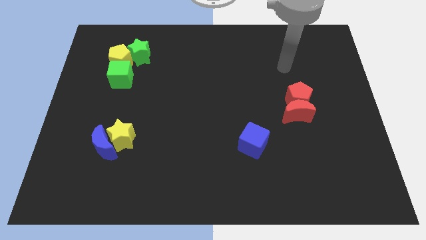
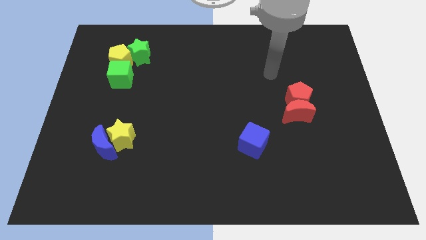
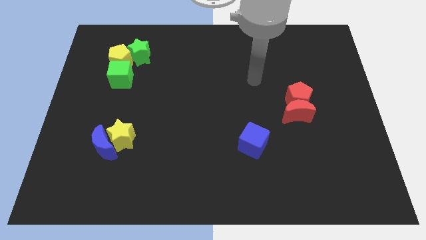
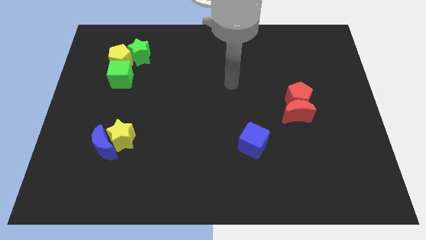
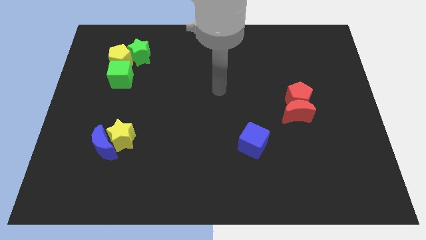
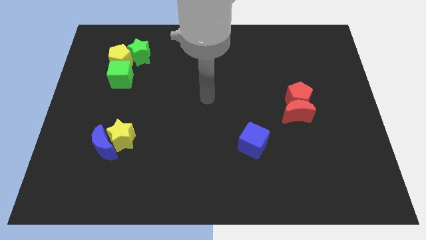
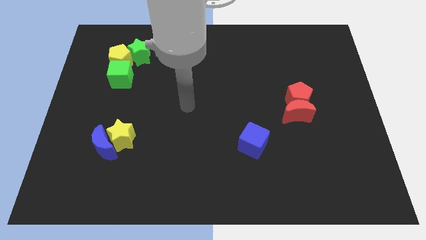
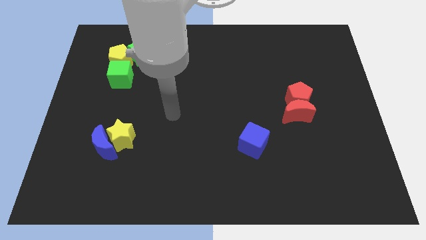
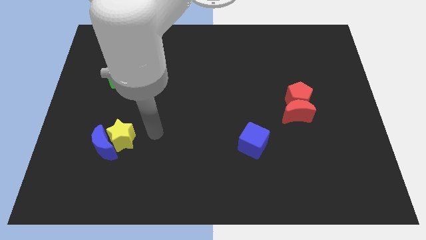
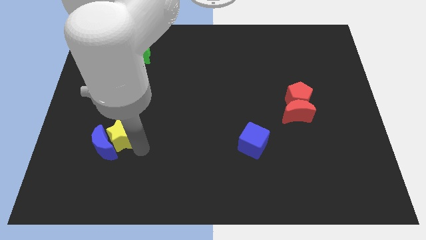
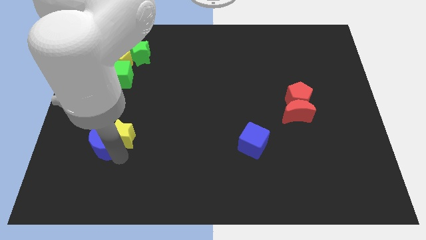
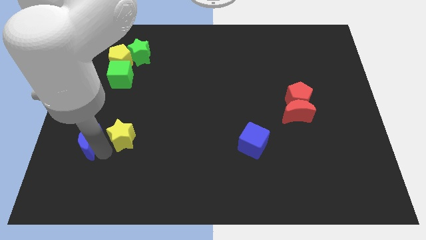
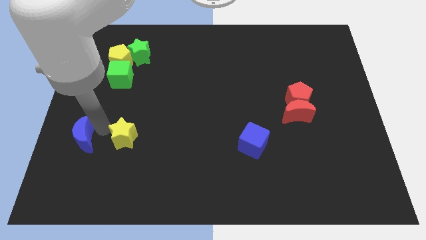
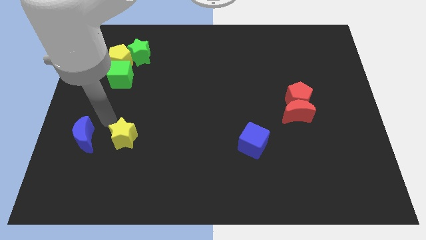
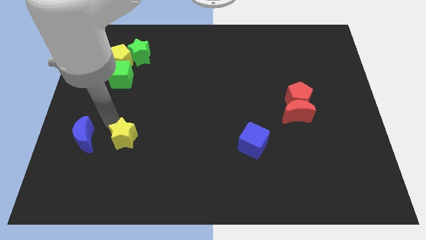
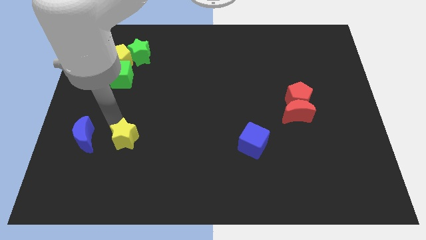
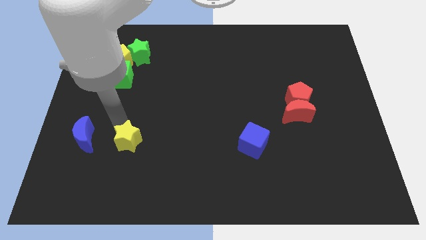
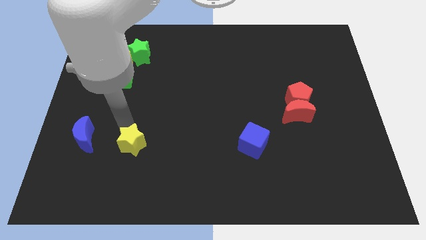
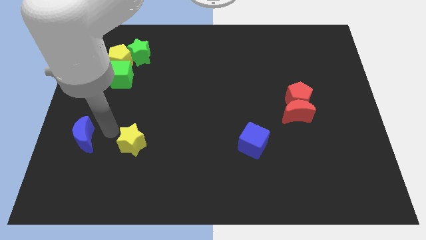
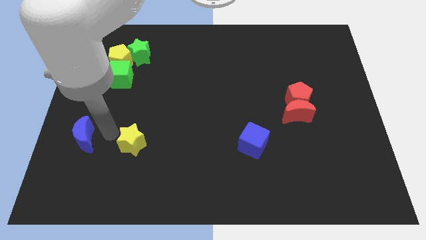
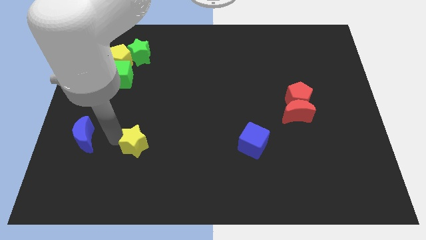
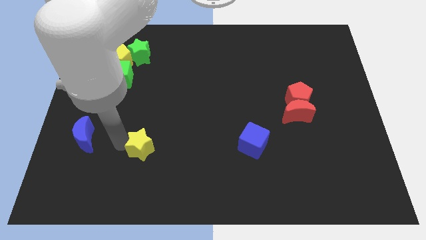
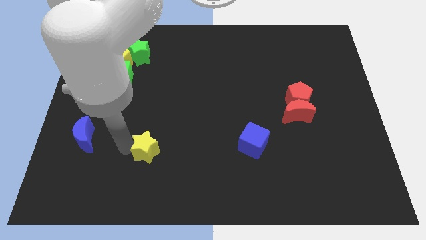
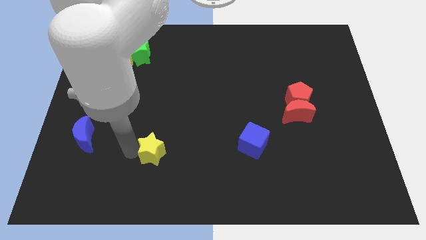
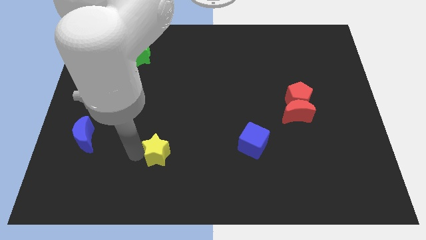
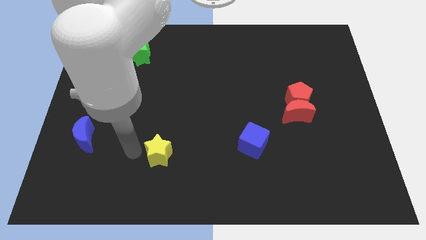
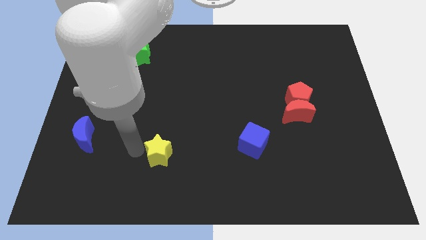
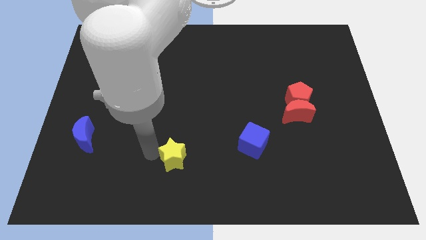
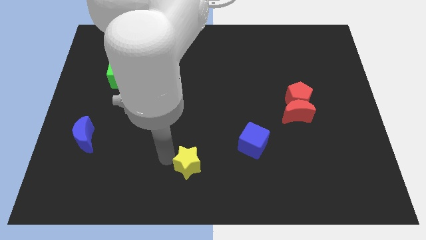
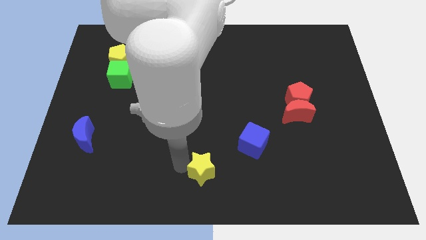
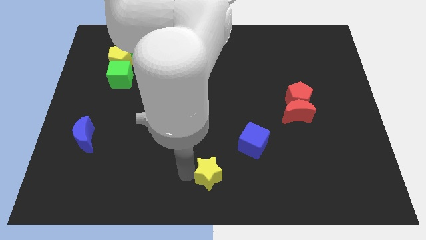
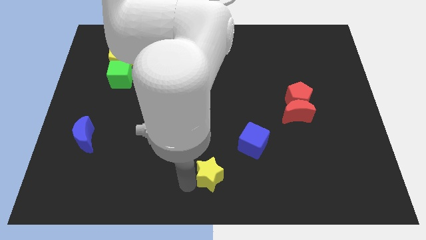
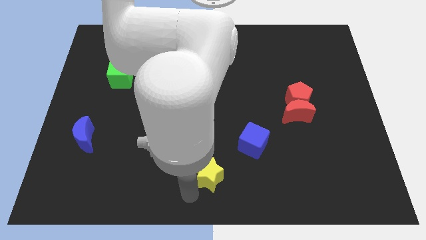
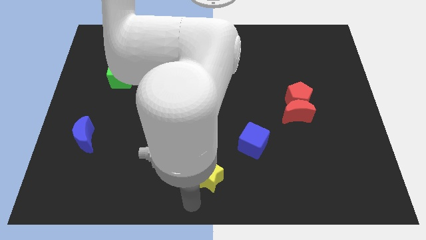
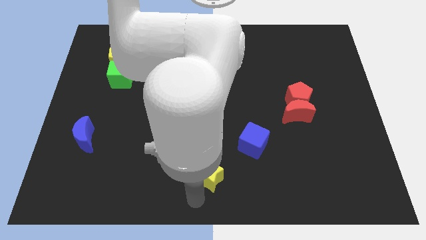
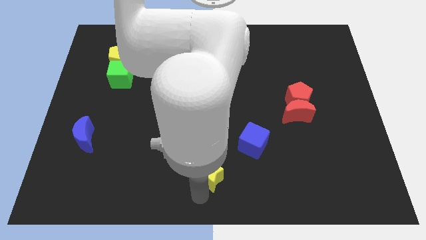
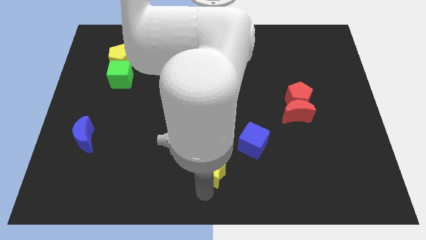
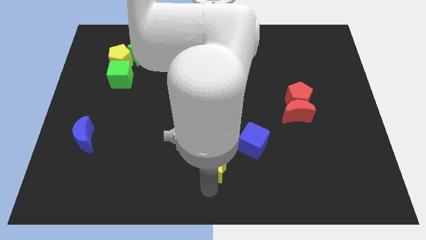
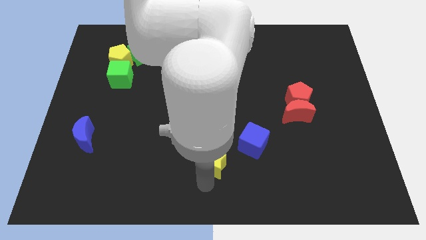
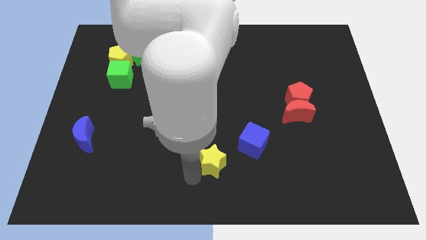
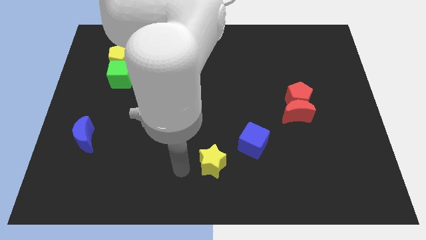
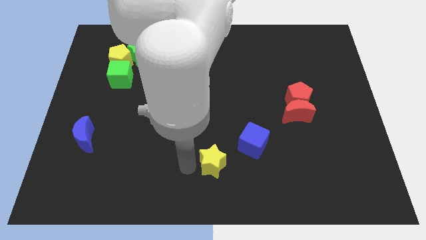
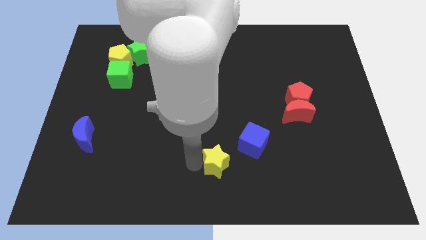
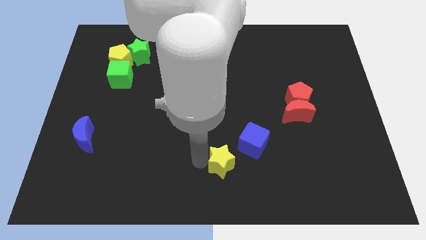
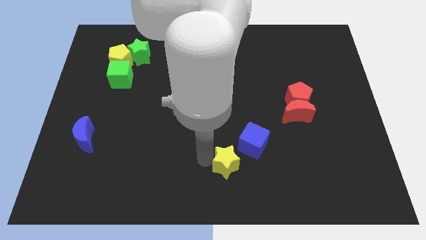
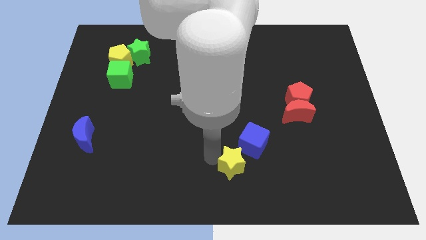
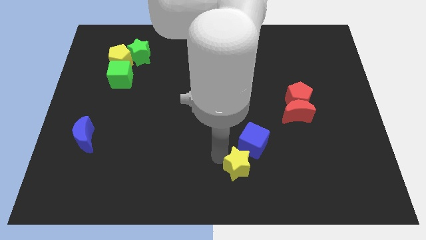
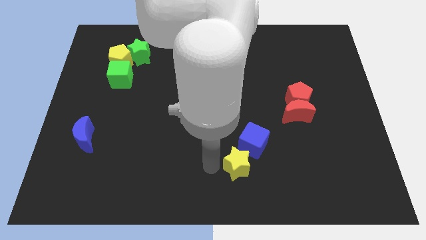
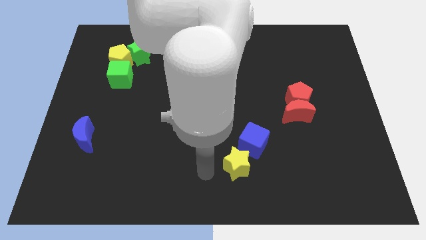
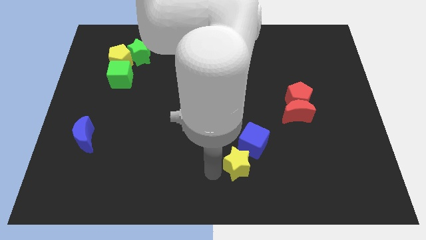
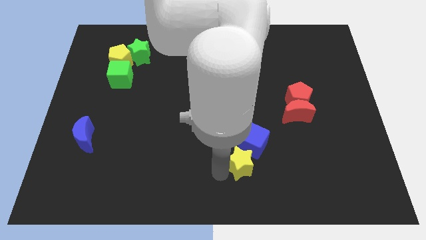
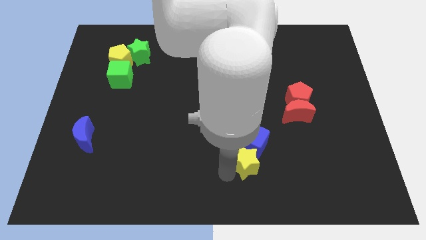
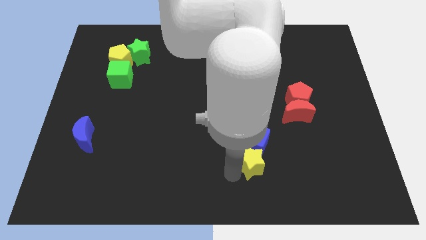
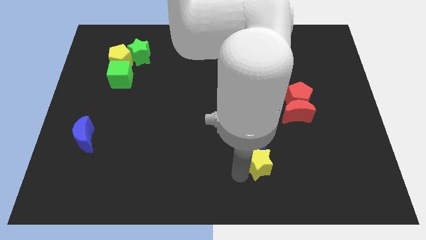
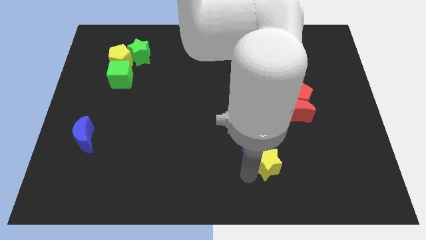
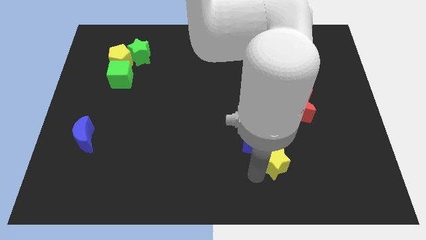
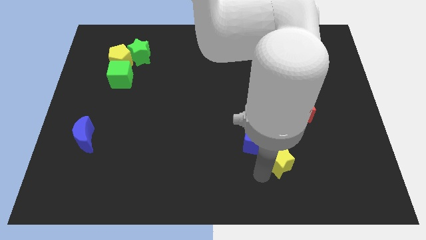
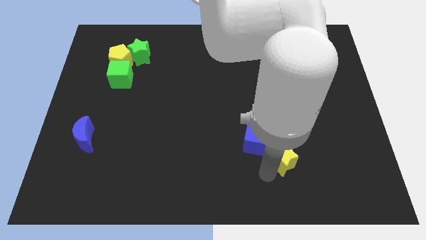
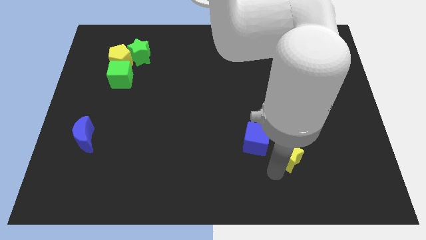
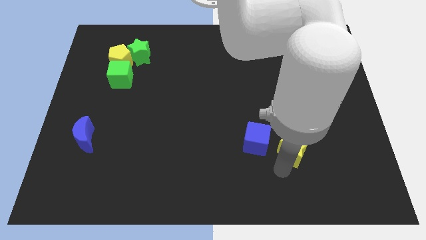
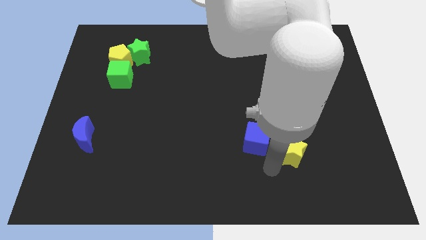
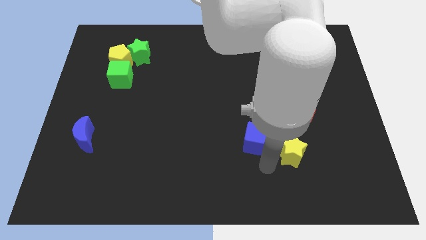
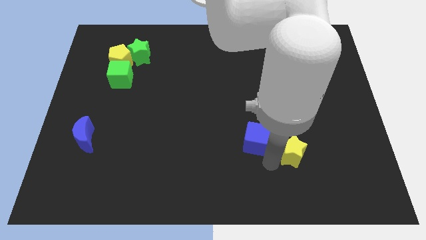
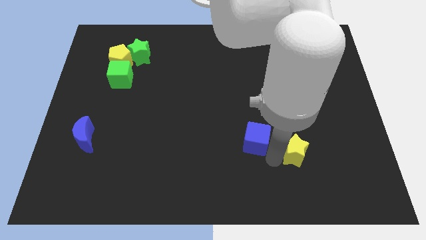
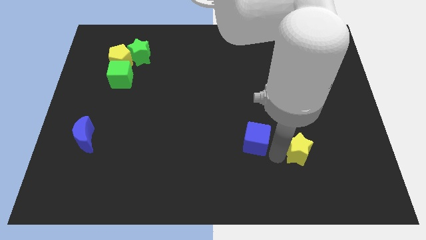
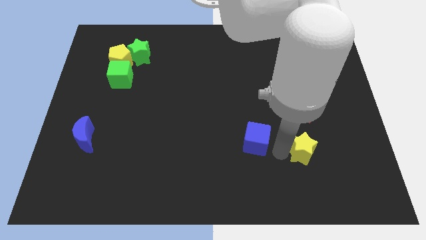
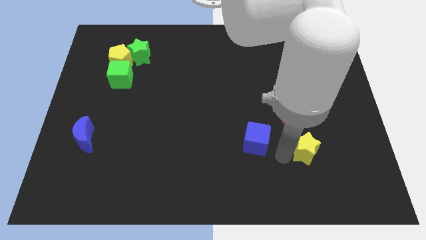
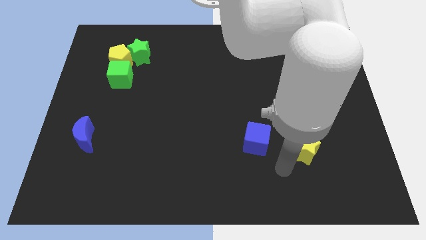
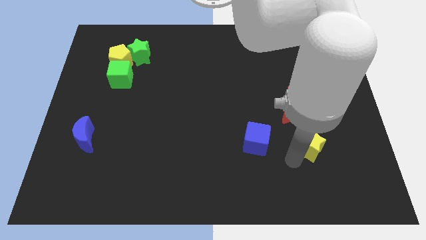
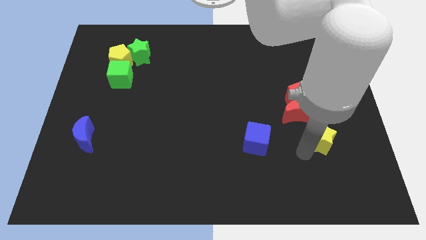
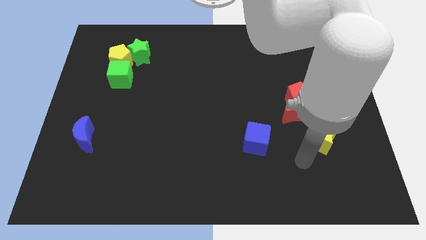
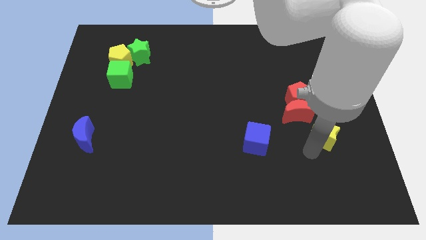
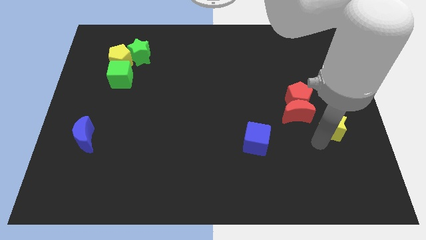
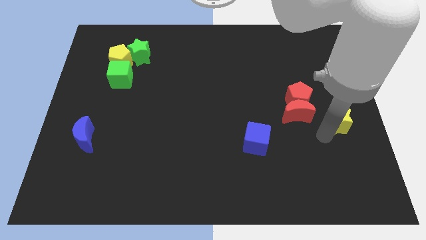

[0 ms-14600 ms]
put the yellow star to the center right

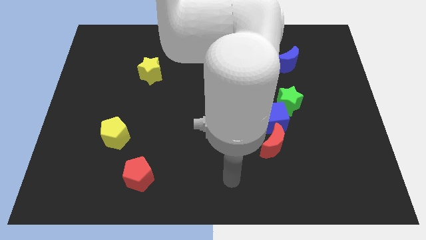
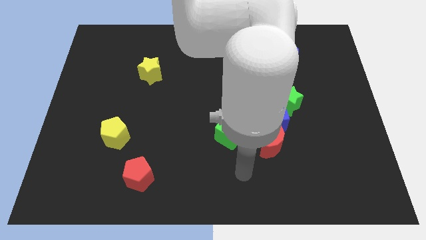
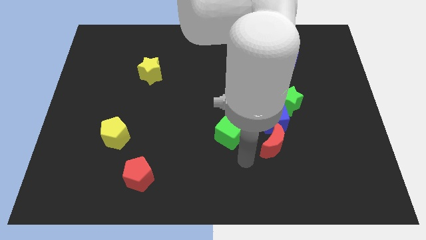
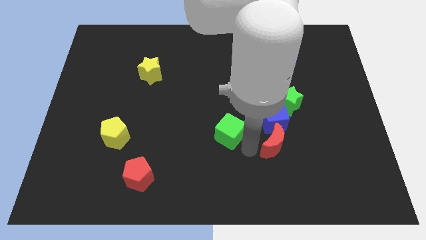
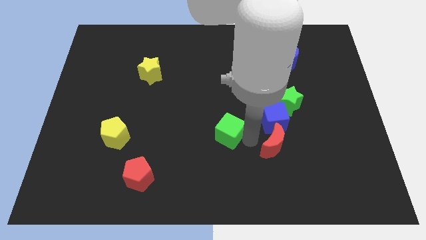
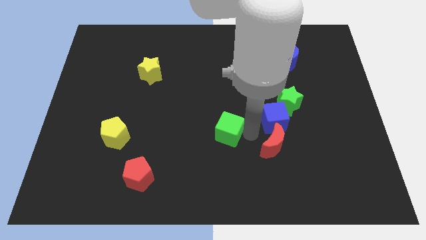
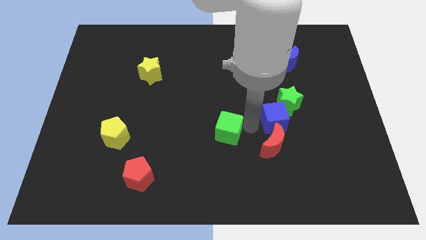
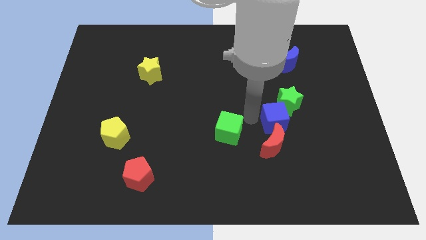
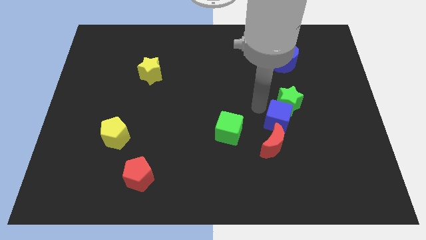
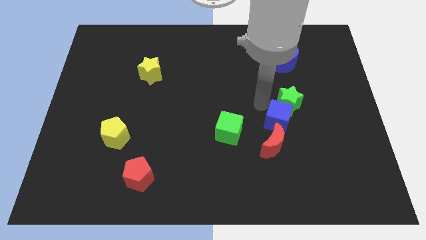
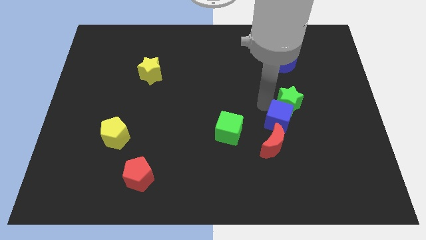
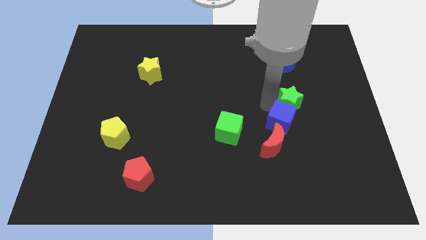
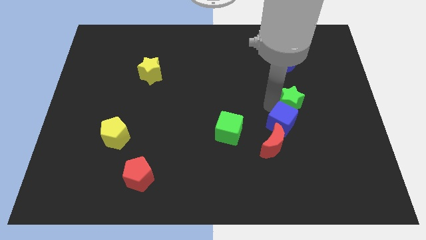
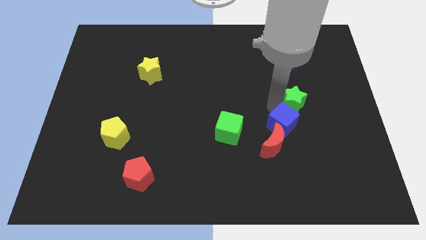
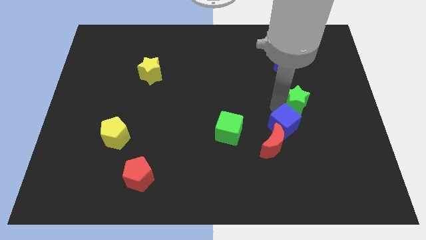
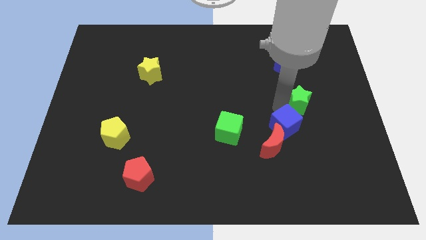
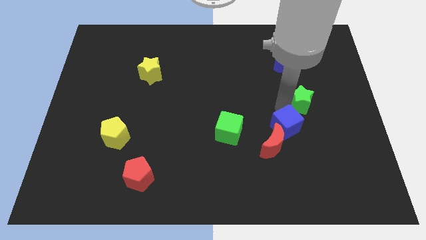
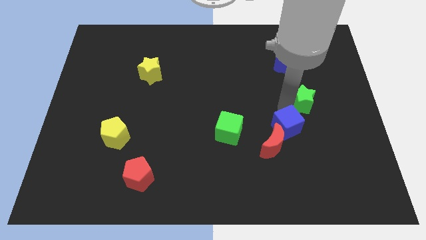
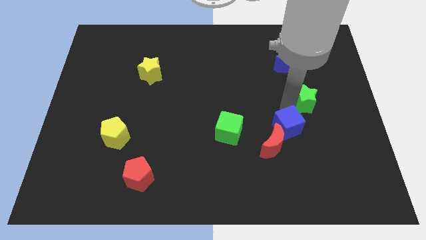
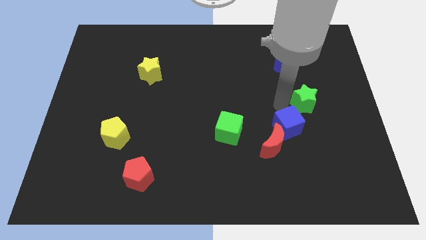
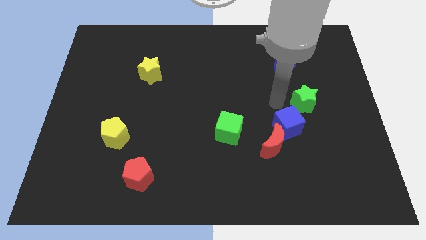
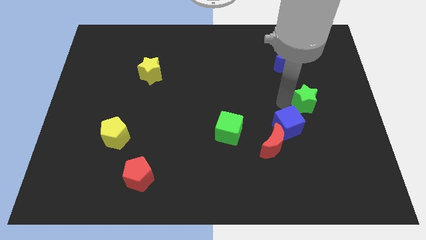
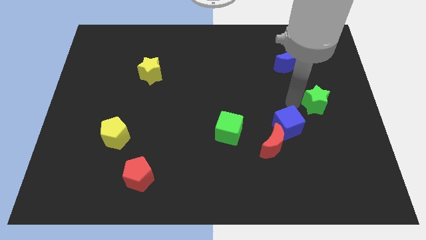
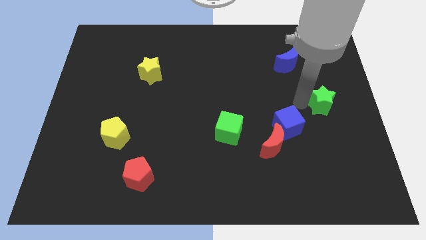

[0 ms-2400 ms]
move the green star to the right side of the board
